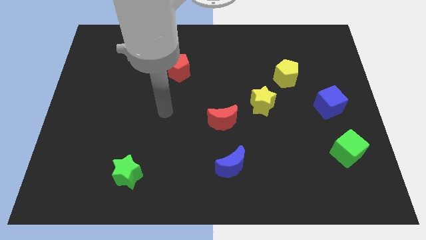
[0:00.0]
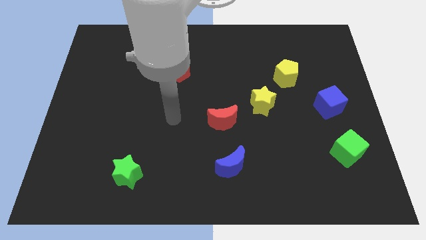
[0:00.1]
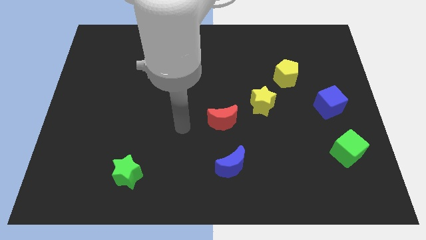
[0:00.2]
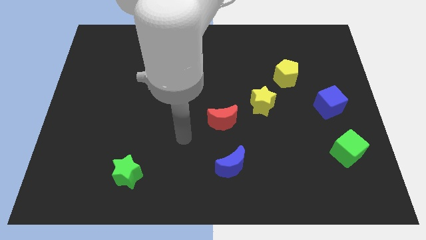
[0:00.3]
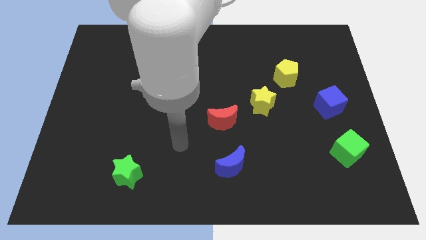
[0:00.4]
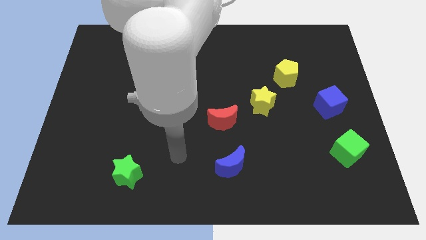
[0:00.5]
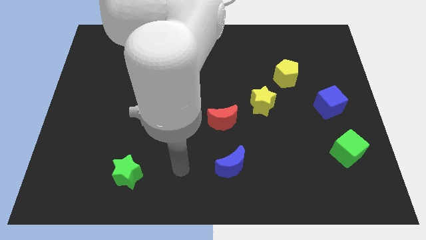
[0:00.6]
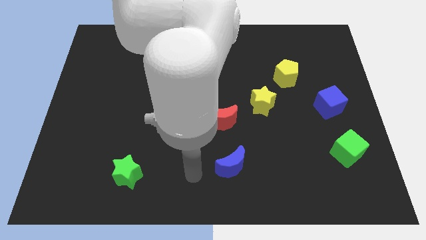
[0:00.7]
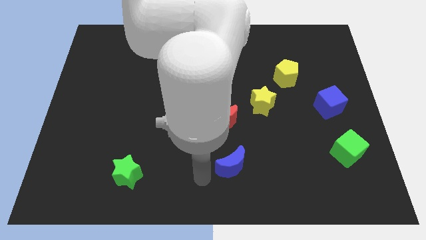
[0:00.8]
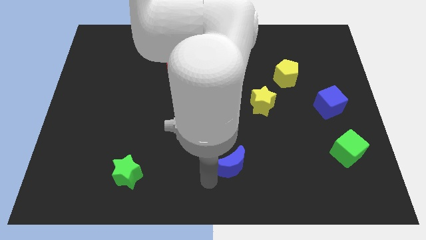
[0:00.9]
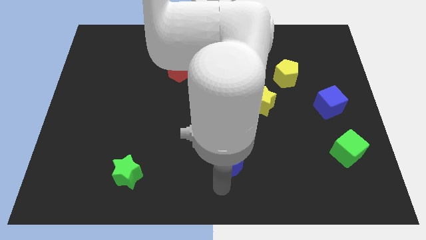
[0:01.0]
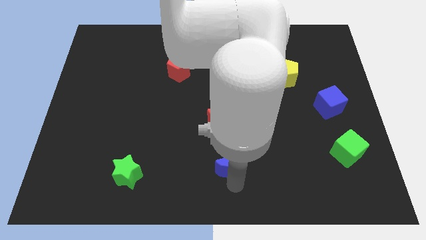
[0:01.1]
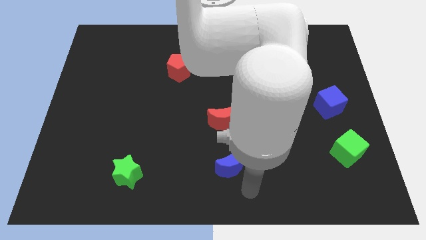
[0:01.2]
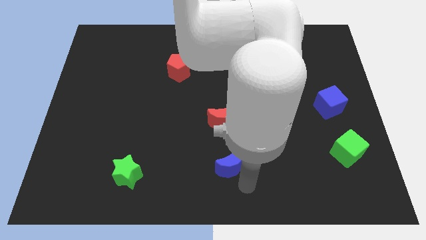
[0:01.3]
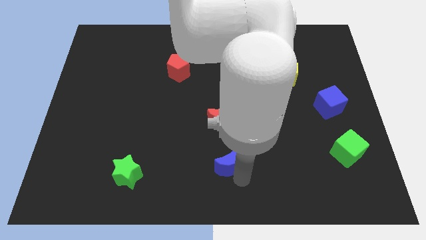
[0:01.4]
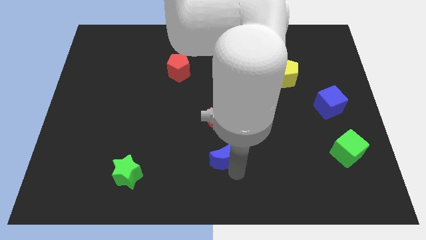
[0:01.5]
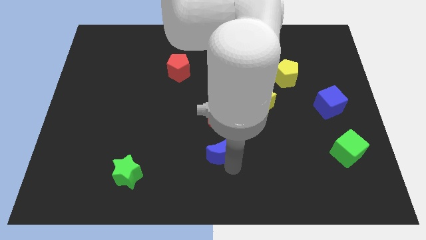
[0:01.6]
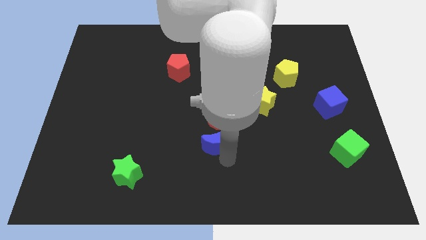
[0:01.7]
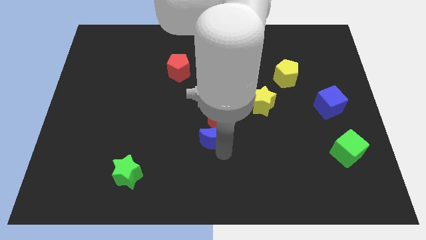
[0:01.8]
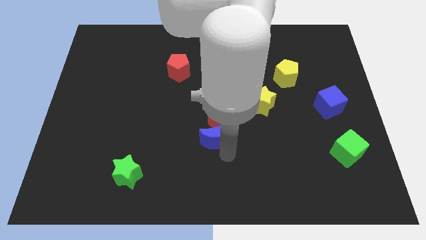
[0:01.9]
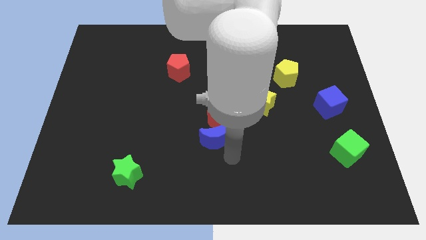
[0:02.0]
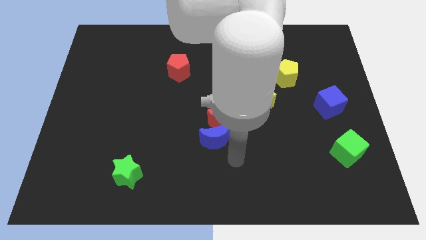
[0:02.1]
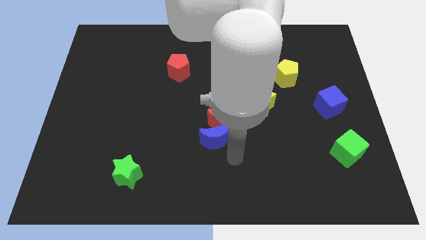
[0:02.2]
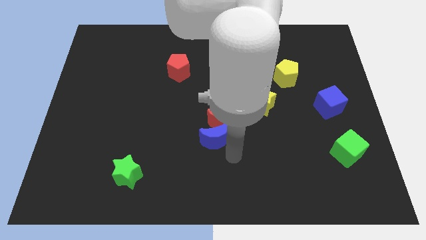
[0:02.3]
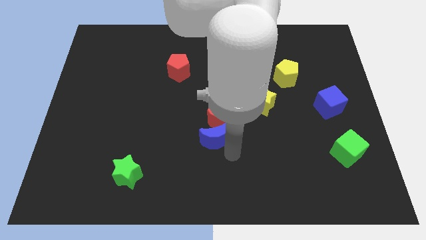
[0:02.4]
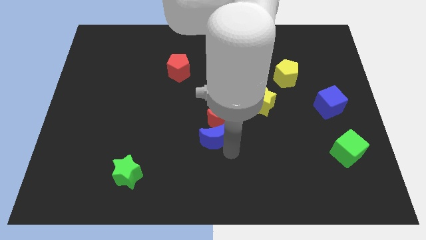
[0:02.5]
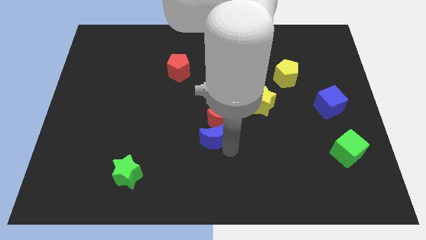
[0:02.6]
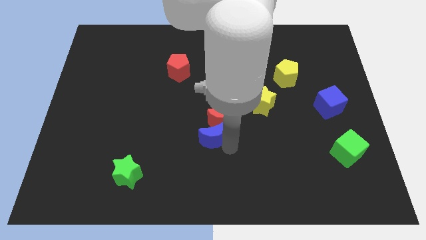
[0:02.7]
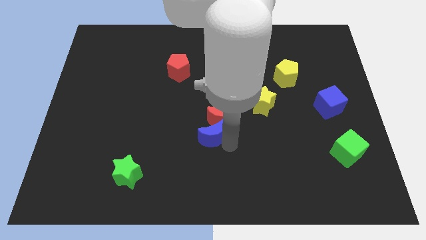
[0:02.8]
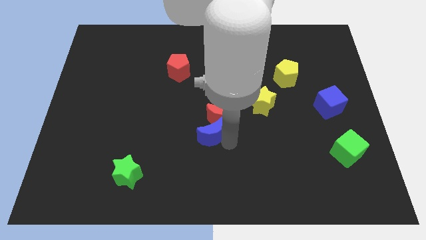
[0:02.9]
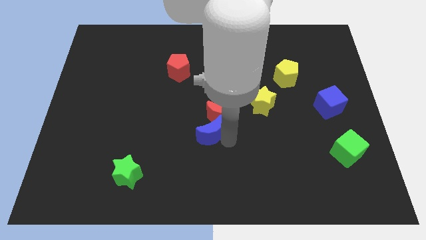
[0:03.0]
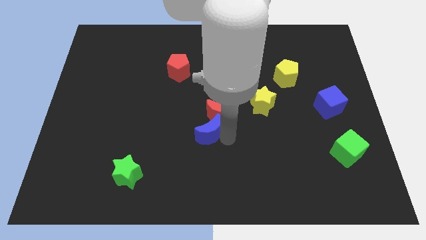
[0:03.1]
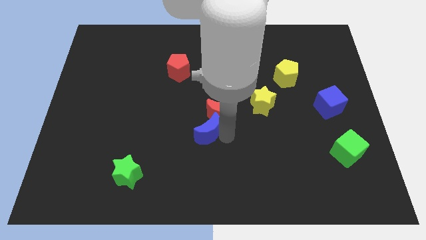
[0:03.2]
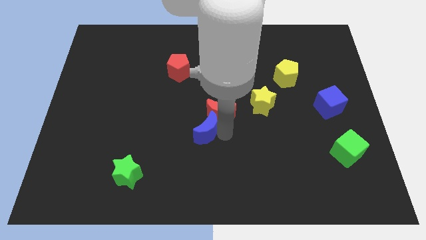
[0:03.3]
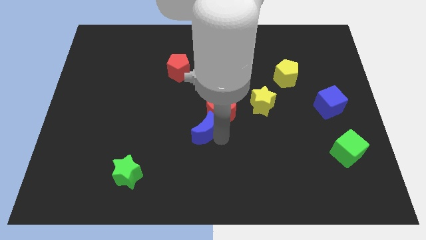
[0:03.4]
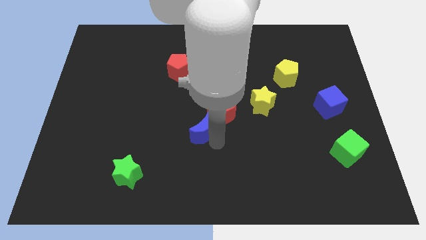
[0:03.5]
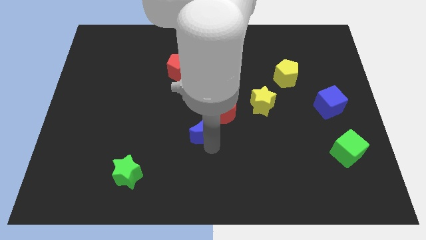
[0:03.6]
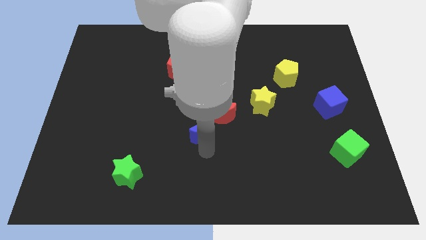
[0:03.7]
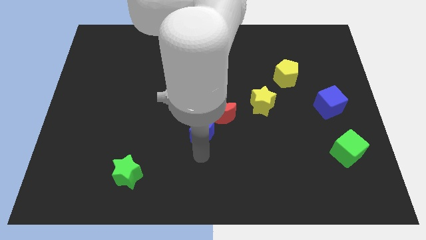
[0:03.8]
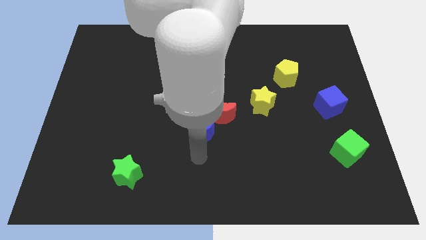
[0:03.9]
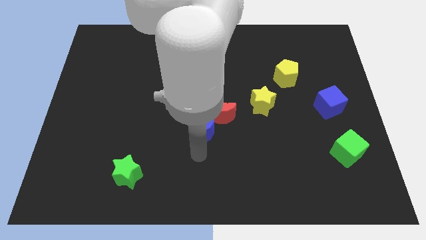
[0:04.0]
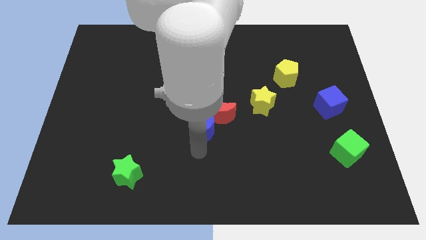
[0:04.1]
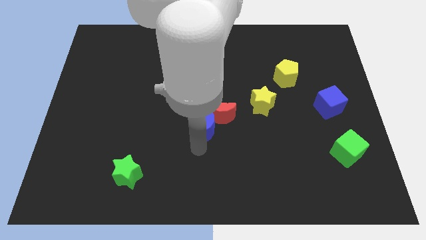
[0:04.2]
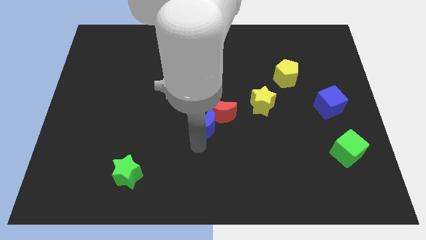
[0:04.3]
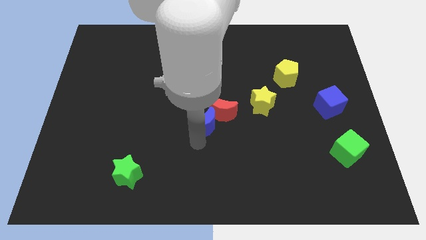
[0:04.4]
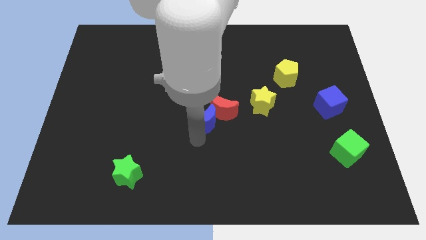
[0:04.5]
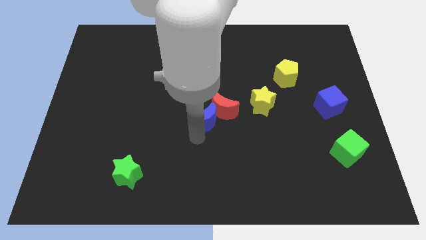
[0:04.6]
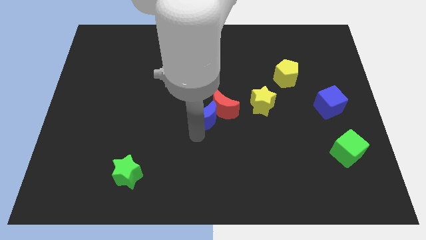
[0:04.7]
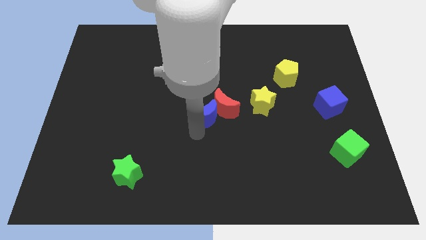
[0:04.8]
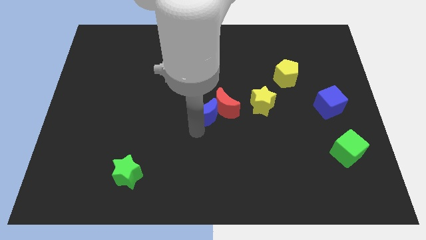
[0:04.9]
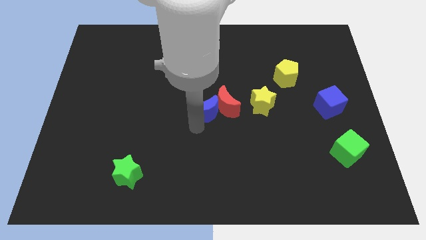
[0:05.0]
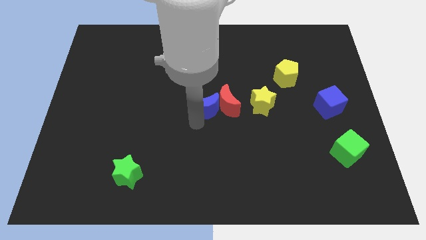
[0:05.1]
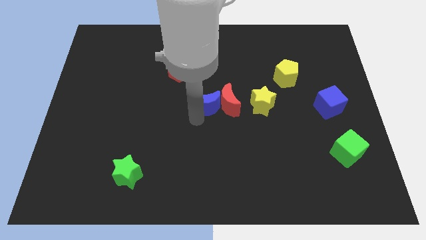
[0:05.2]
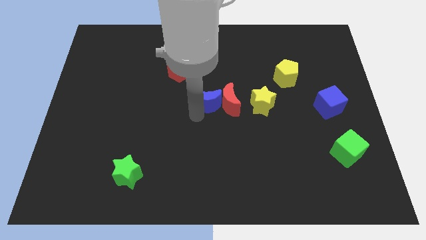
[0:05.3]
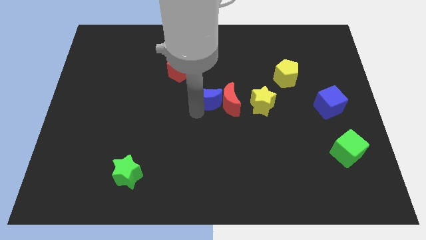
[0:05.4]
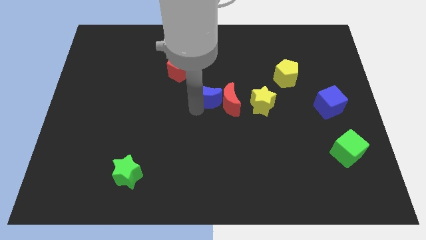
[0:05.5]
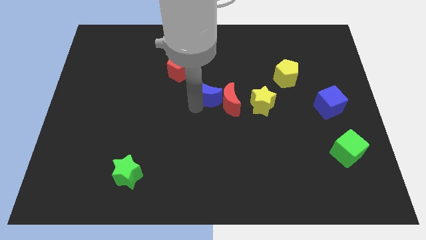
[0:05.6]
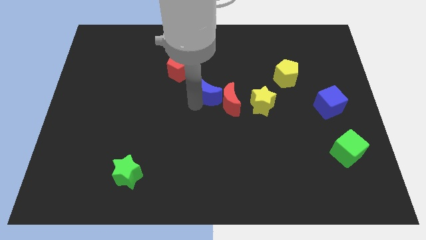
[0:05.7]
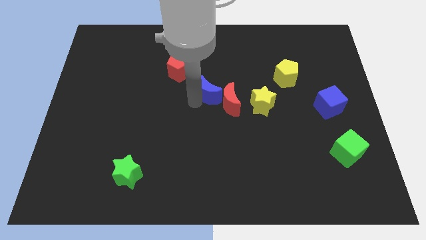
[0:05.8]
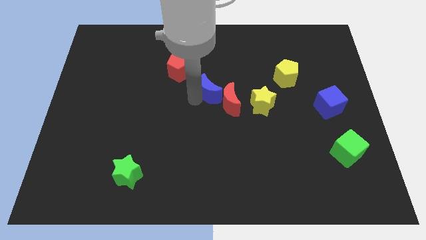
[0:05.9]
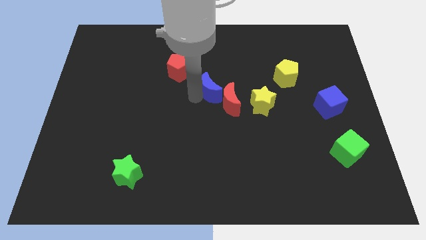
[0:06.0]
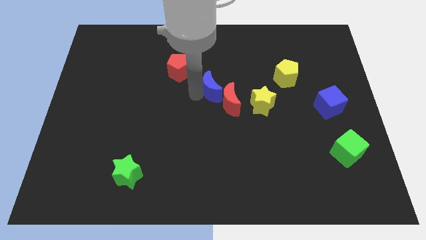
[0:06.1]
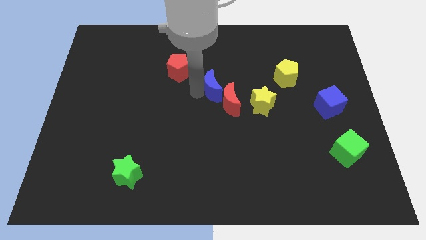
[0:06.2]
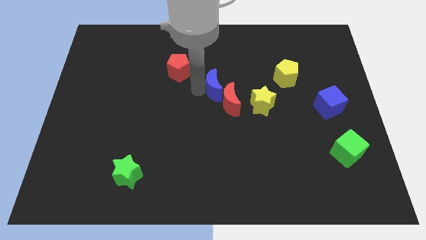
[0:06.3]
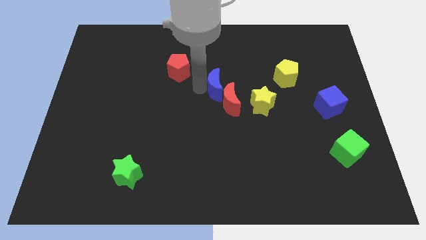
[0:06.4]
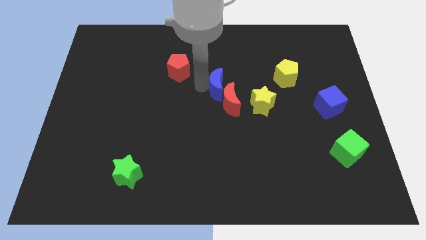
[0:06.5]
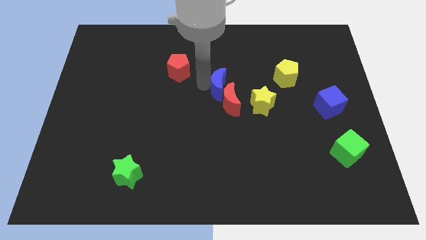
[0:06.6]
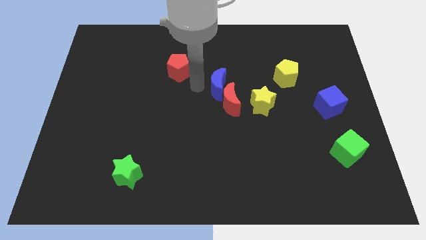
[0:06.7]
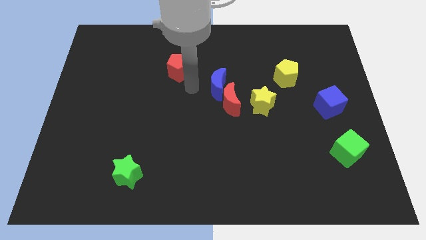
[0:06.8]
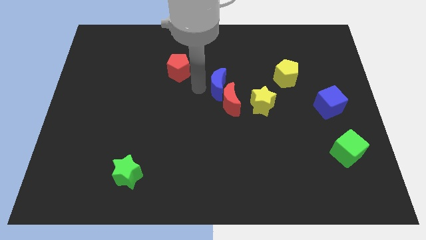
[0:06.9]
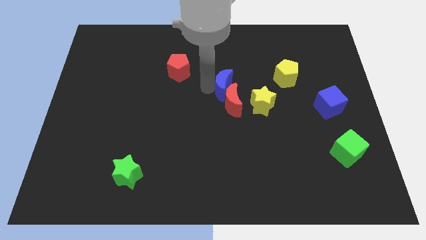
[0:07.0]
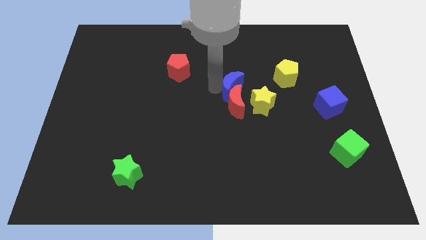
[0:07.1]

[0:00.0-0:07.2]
put the blue moon to the top right side of the red moon

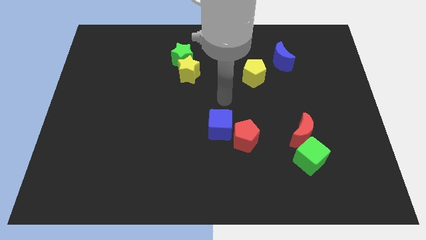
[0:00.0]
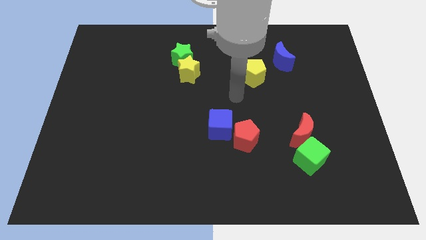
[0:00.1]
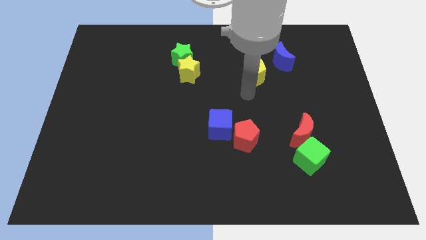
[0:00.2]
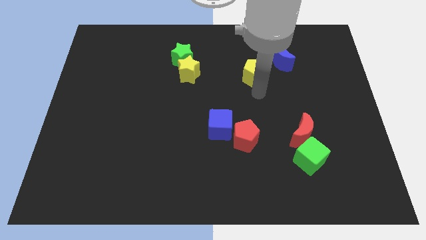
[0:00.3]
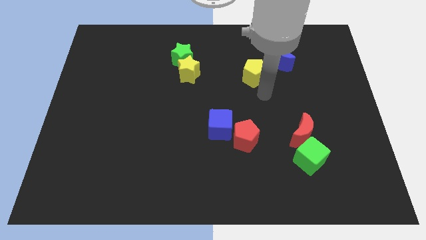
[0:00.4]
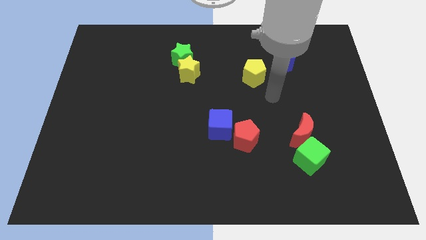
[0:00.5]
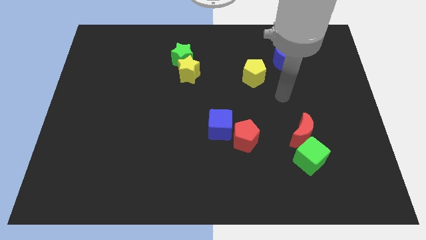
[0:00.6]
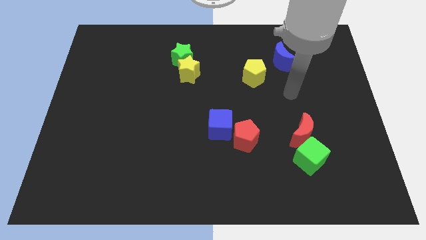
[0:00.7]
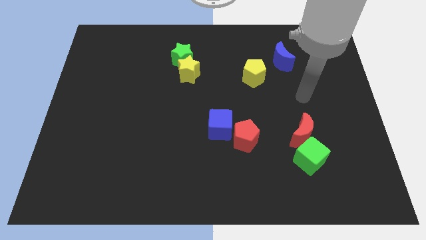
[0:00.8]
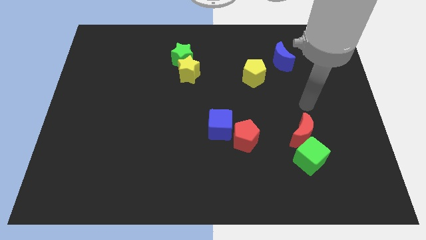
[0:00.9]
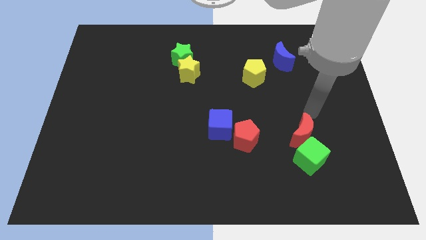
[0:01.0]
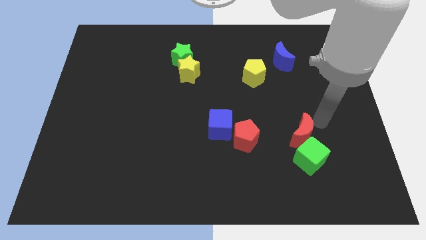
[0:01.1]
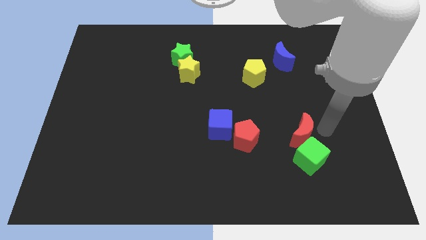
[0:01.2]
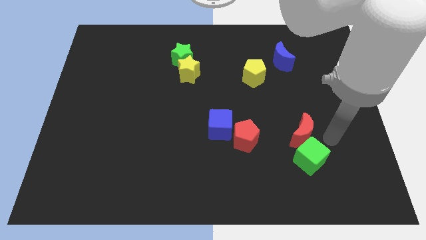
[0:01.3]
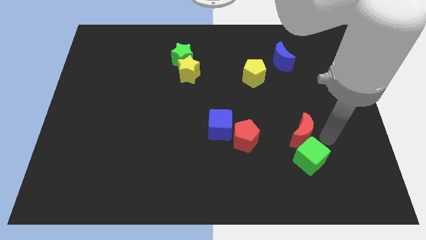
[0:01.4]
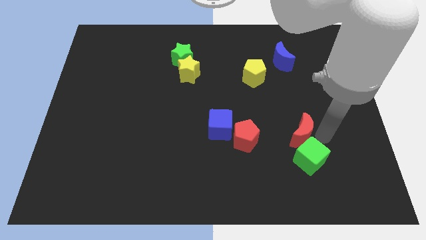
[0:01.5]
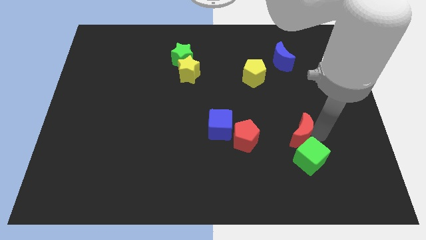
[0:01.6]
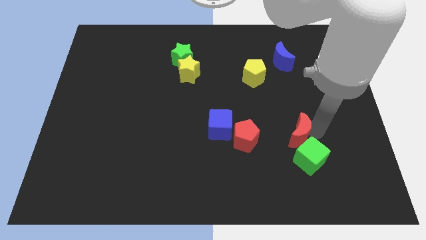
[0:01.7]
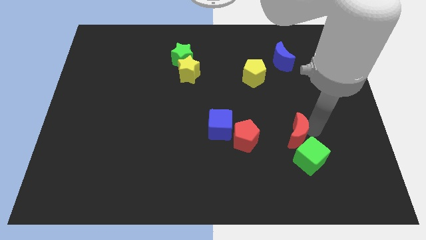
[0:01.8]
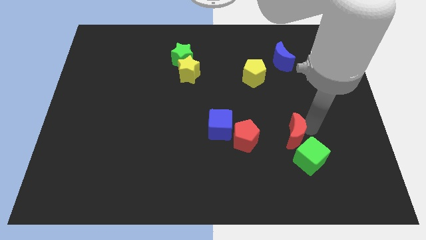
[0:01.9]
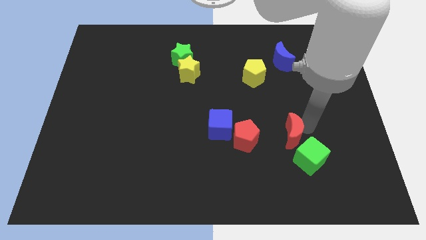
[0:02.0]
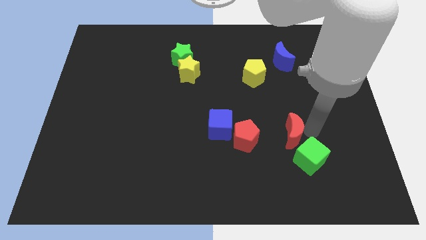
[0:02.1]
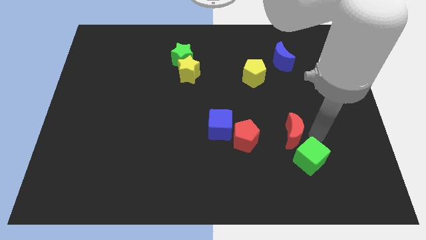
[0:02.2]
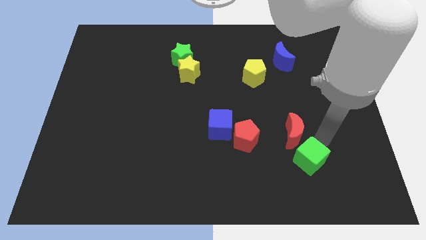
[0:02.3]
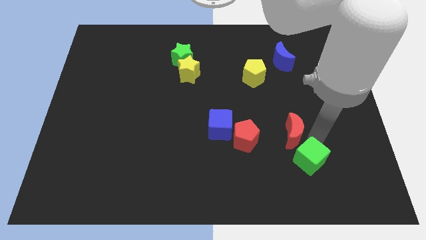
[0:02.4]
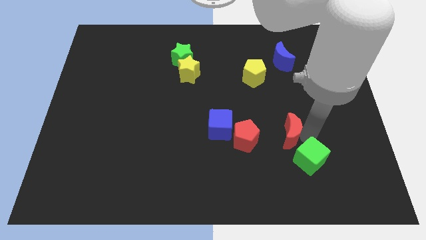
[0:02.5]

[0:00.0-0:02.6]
put the red moon right of the blue cube
